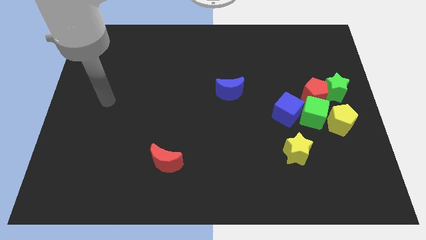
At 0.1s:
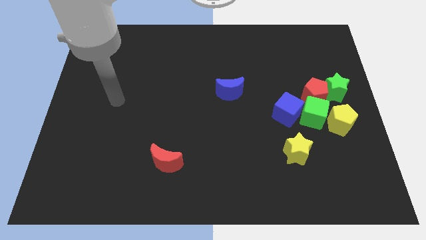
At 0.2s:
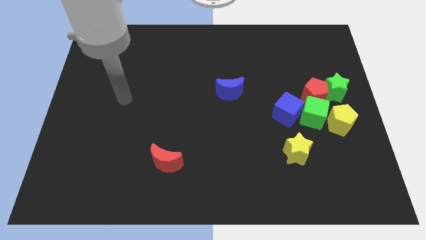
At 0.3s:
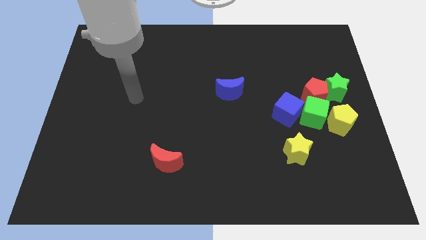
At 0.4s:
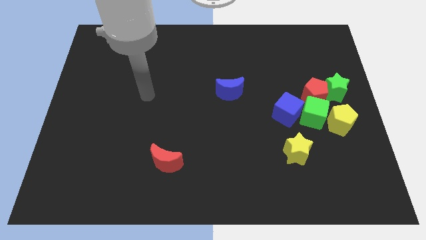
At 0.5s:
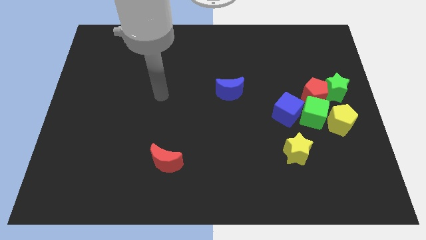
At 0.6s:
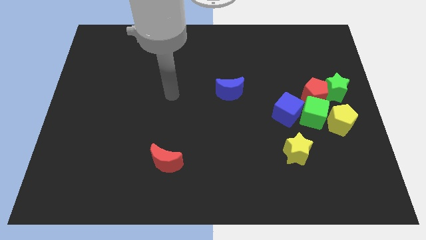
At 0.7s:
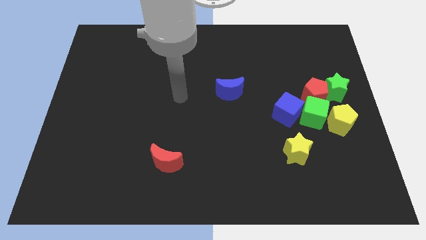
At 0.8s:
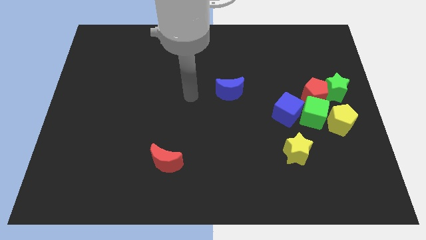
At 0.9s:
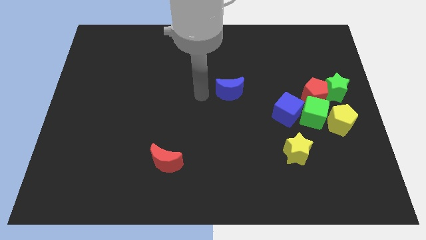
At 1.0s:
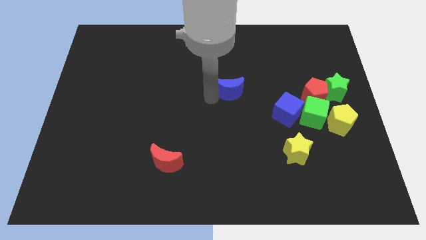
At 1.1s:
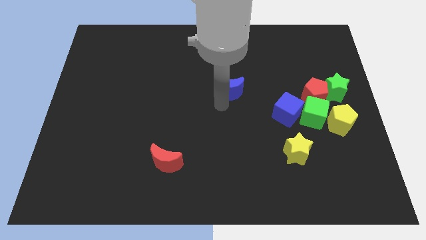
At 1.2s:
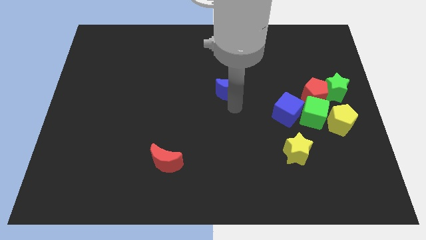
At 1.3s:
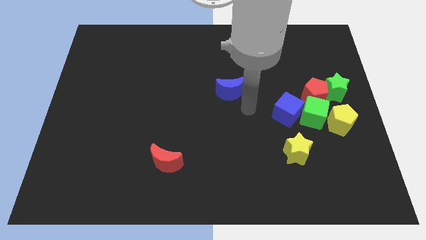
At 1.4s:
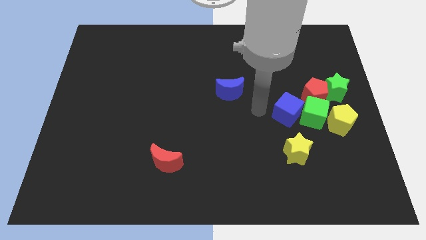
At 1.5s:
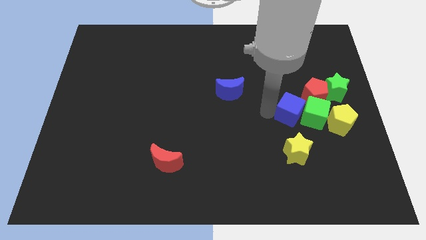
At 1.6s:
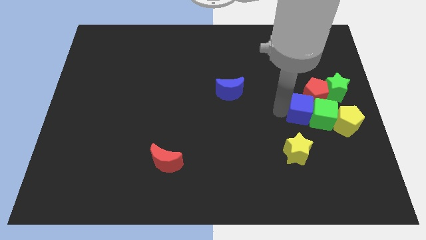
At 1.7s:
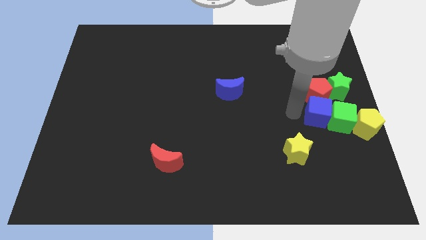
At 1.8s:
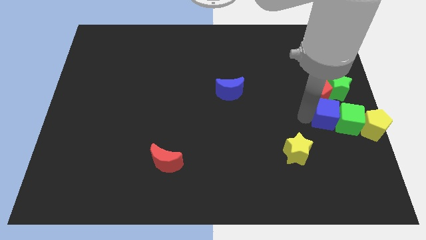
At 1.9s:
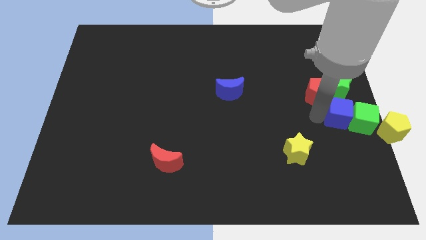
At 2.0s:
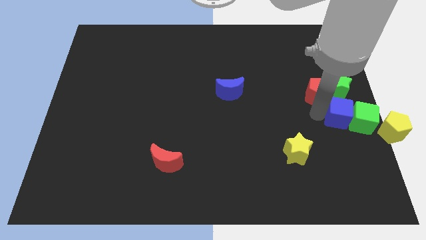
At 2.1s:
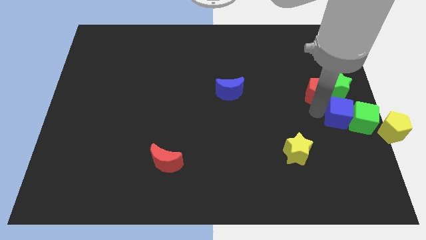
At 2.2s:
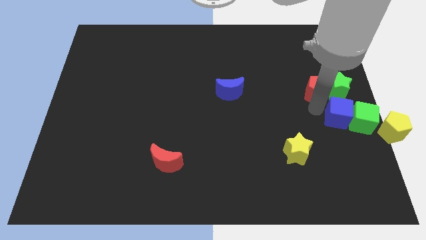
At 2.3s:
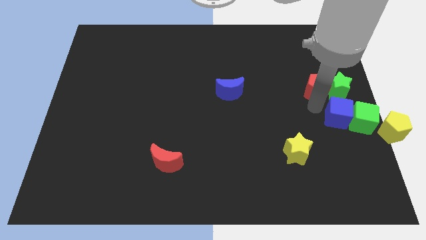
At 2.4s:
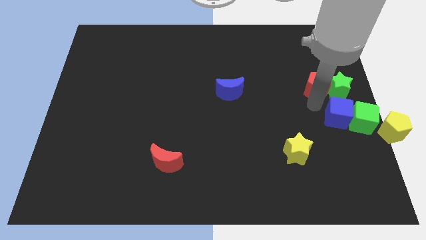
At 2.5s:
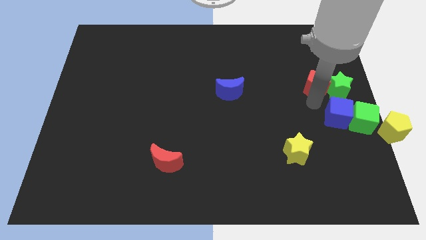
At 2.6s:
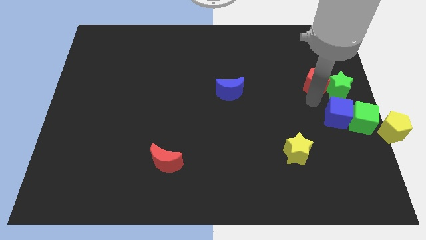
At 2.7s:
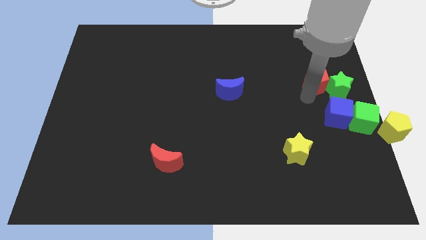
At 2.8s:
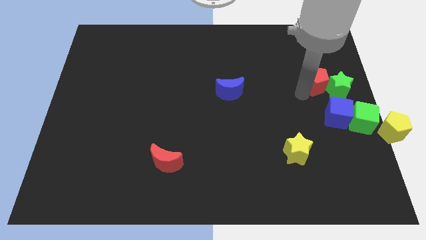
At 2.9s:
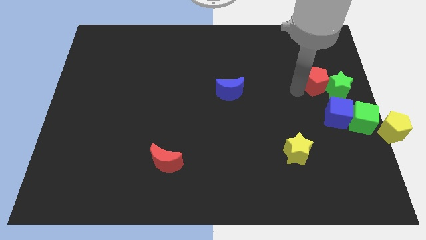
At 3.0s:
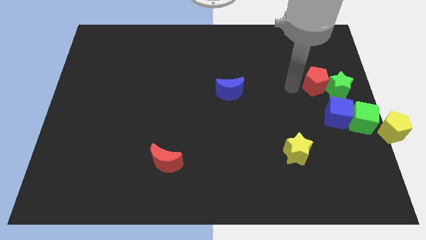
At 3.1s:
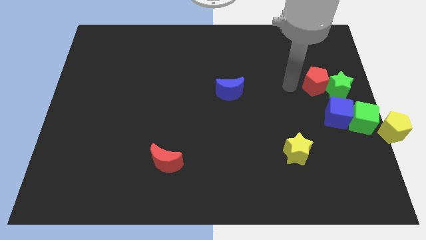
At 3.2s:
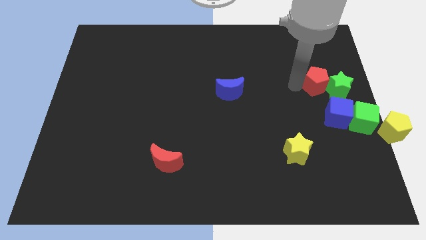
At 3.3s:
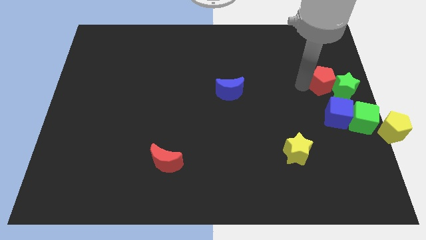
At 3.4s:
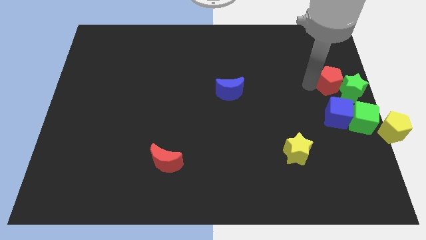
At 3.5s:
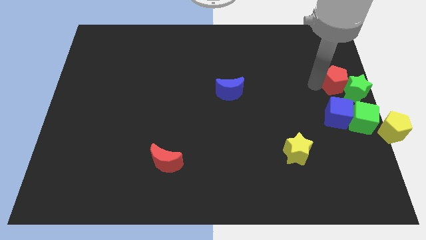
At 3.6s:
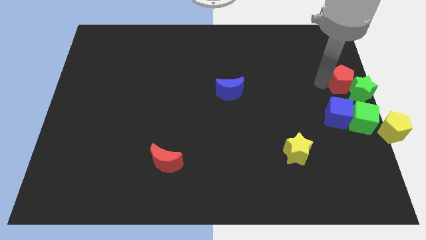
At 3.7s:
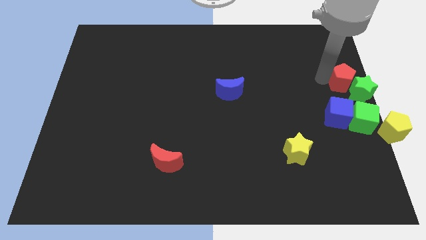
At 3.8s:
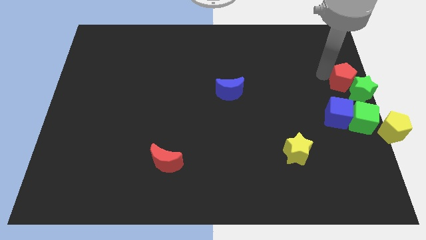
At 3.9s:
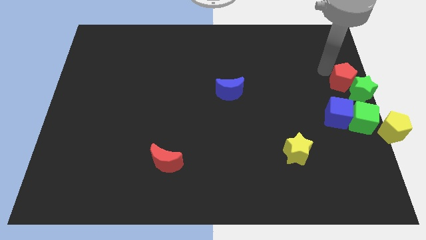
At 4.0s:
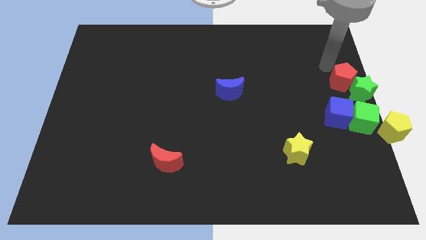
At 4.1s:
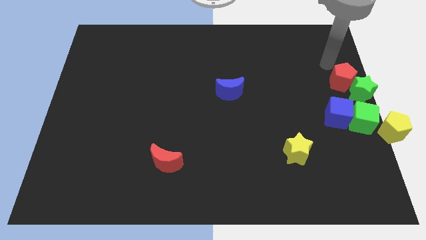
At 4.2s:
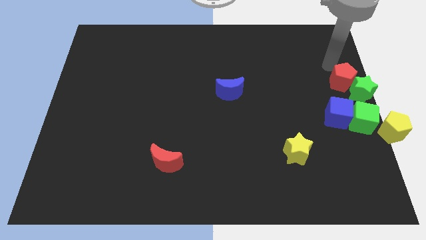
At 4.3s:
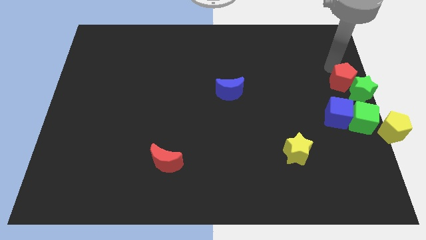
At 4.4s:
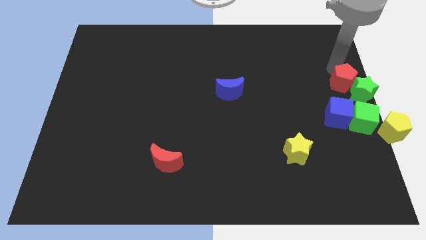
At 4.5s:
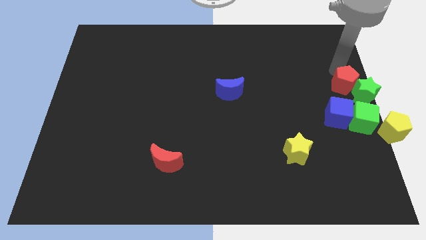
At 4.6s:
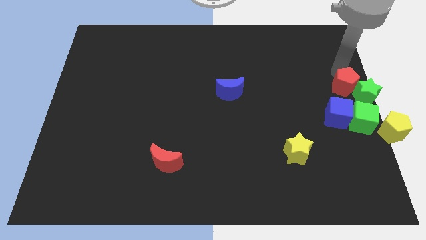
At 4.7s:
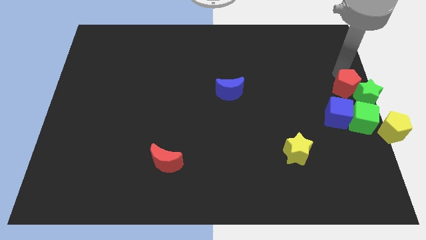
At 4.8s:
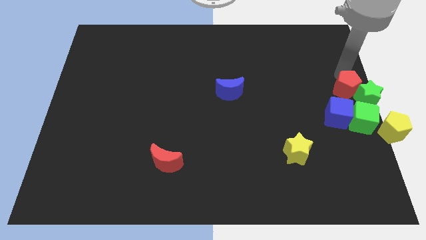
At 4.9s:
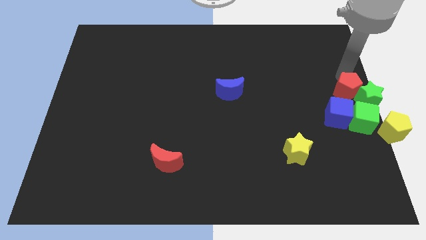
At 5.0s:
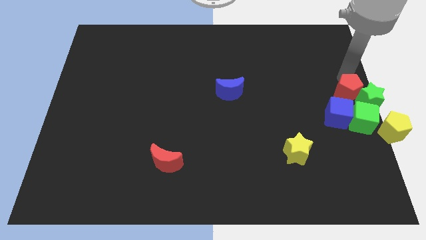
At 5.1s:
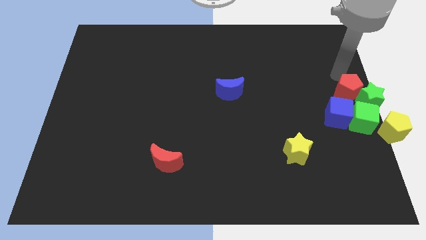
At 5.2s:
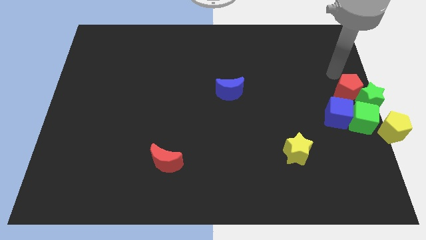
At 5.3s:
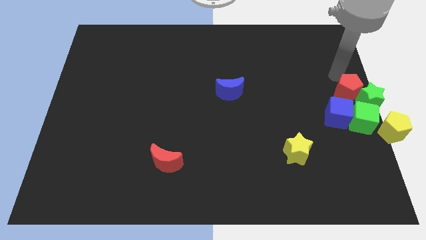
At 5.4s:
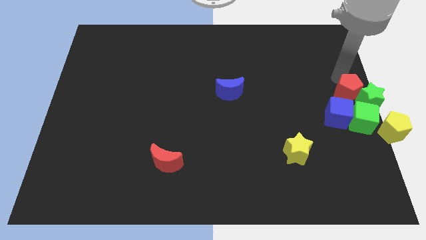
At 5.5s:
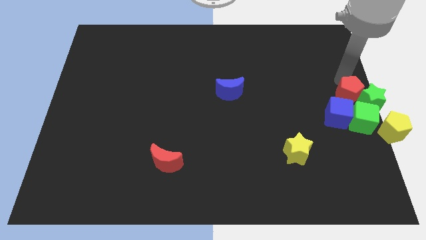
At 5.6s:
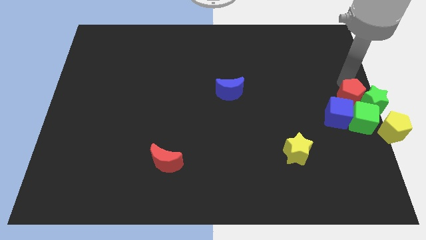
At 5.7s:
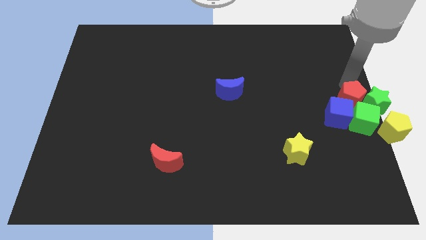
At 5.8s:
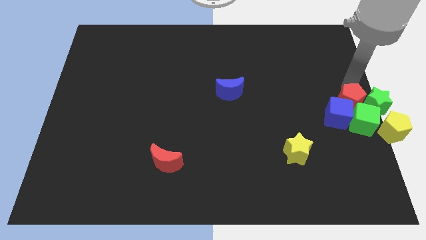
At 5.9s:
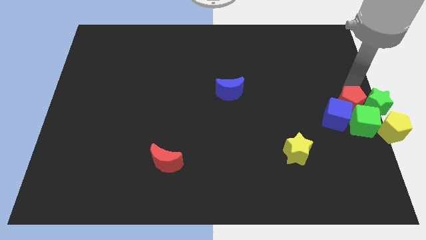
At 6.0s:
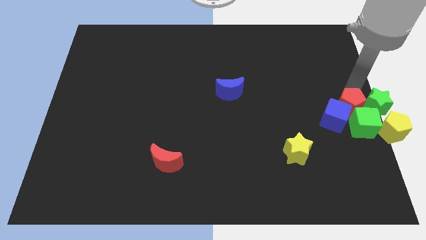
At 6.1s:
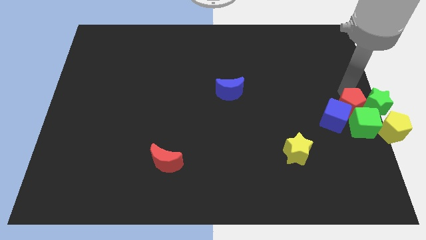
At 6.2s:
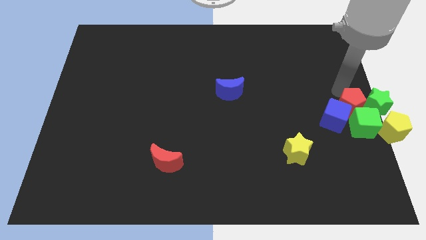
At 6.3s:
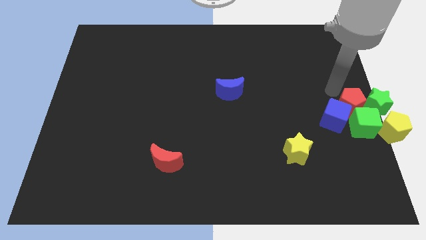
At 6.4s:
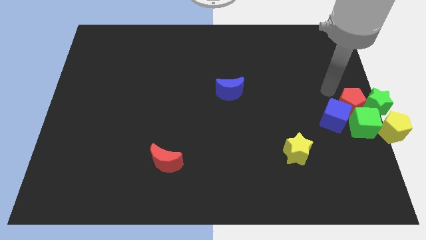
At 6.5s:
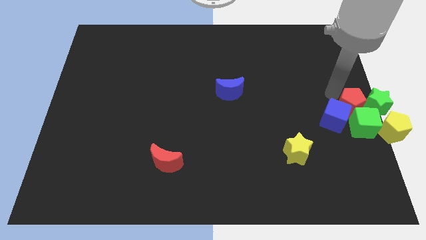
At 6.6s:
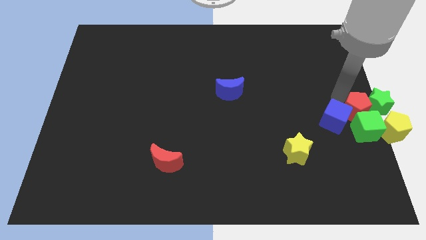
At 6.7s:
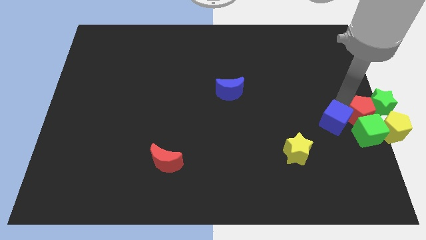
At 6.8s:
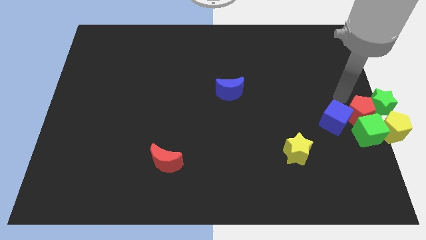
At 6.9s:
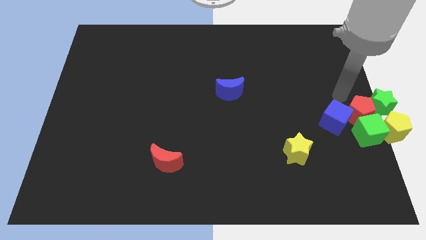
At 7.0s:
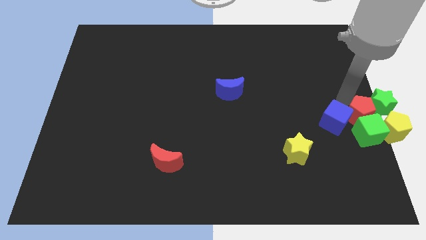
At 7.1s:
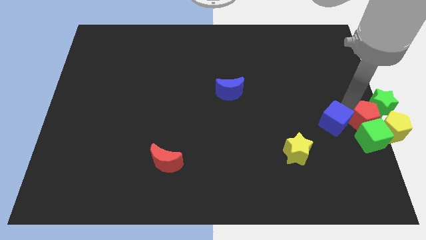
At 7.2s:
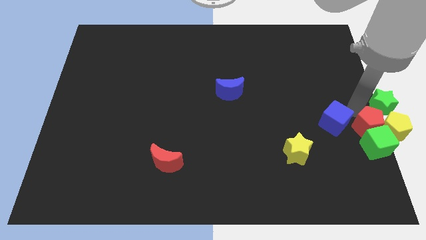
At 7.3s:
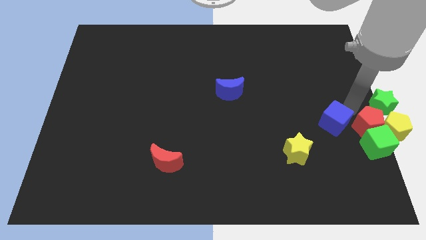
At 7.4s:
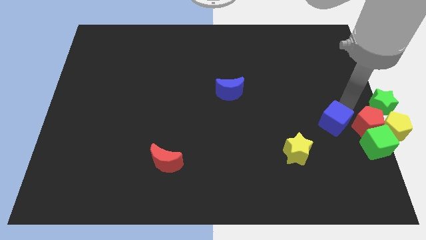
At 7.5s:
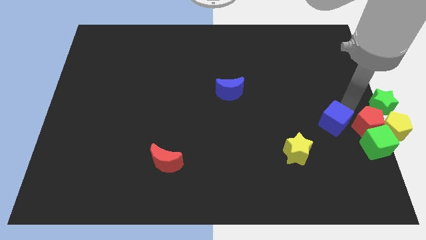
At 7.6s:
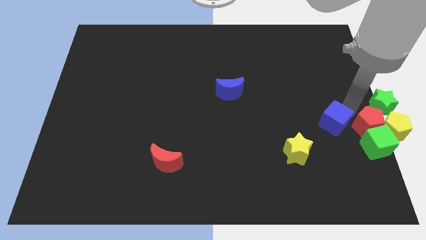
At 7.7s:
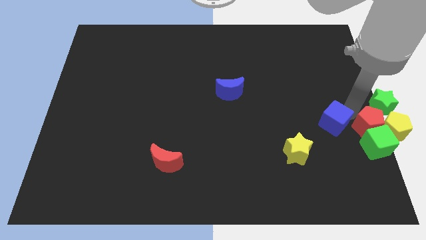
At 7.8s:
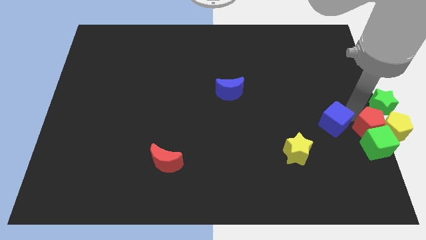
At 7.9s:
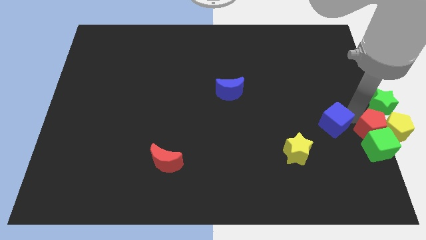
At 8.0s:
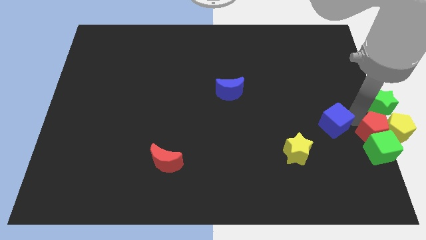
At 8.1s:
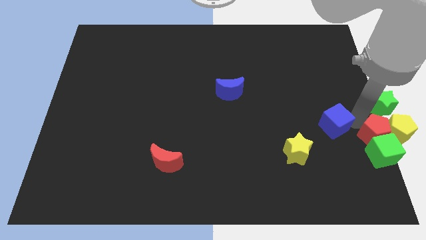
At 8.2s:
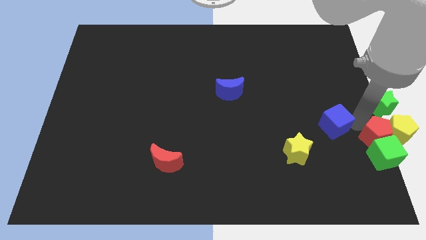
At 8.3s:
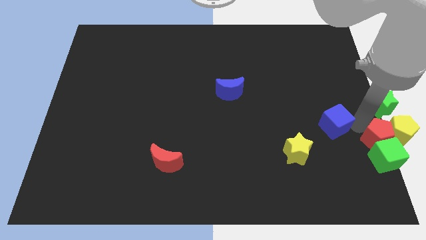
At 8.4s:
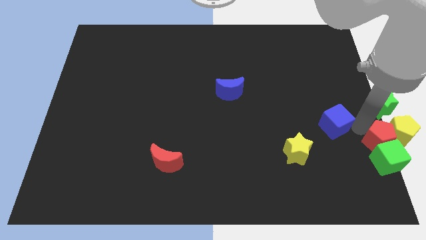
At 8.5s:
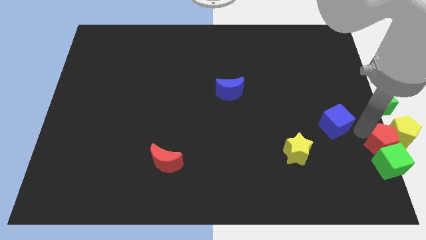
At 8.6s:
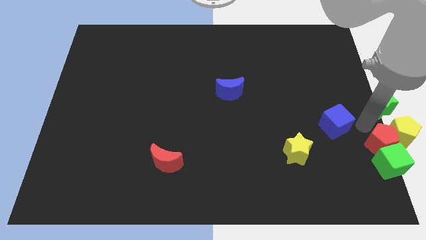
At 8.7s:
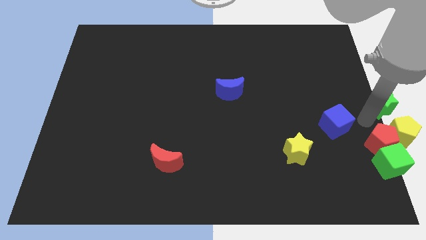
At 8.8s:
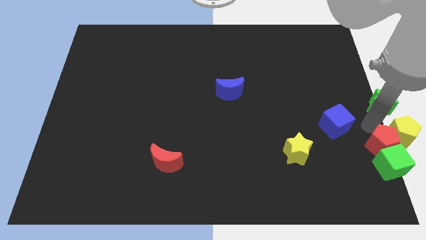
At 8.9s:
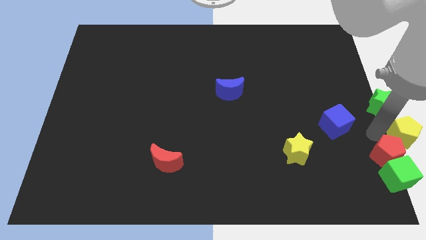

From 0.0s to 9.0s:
push the red pentagon to the bottom right corner
